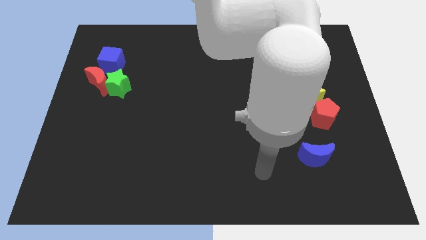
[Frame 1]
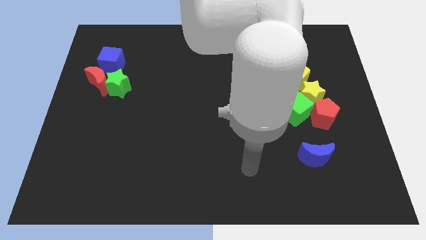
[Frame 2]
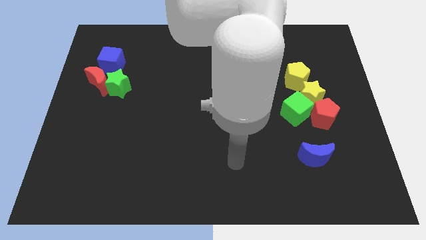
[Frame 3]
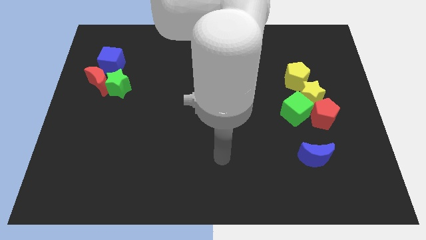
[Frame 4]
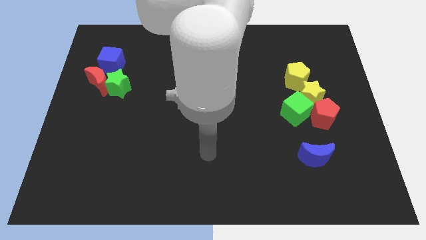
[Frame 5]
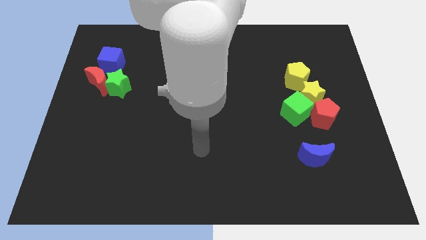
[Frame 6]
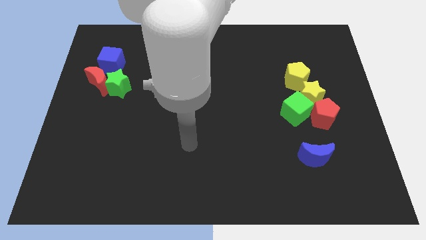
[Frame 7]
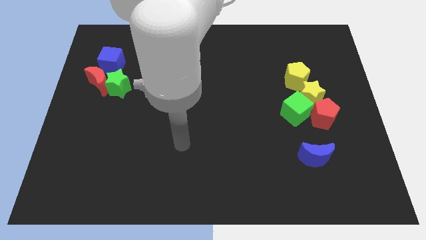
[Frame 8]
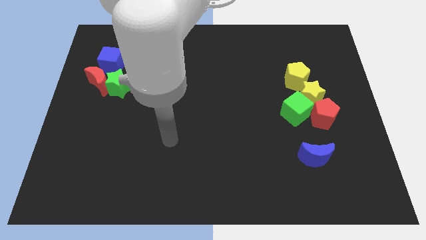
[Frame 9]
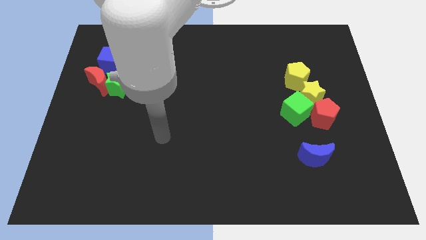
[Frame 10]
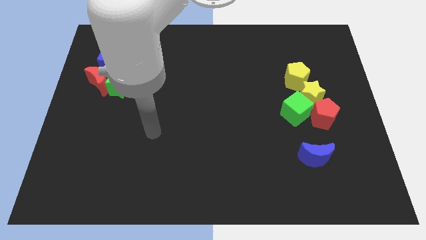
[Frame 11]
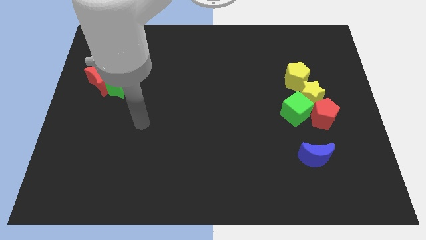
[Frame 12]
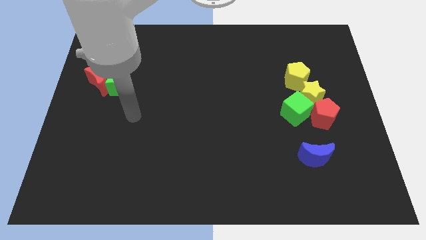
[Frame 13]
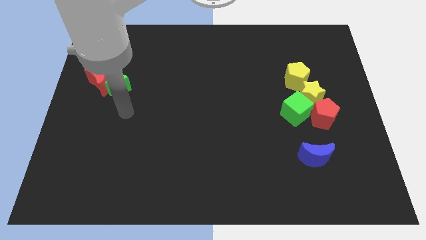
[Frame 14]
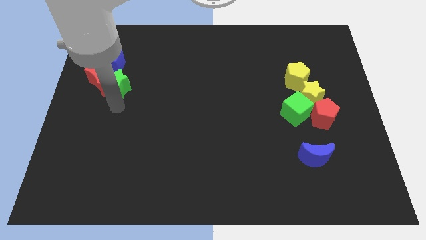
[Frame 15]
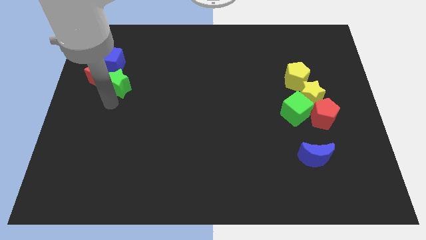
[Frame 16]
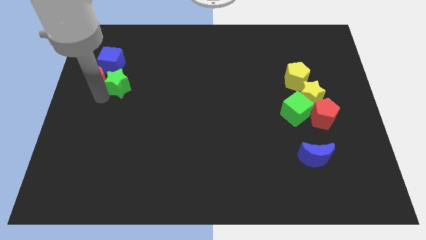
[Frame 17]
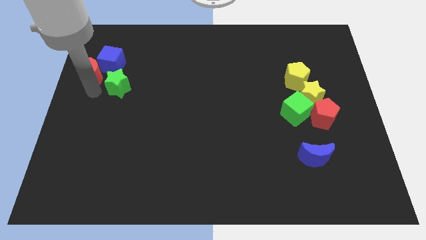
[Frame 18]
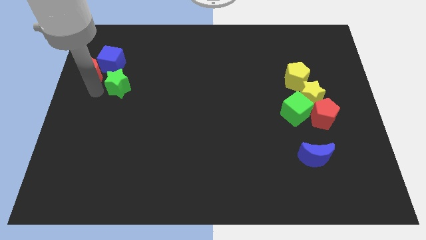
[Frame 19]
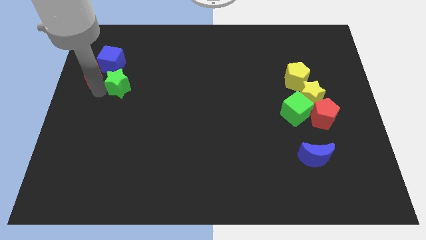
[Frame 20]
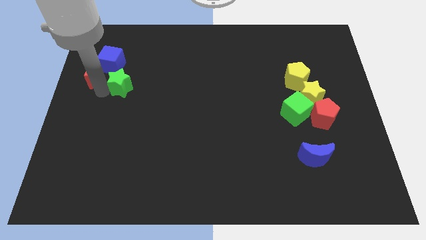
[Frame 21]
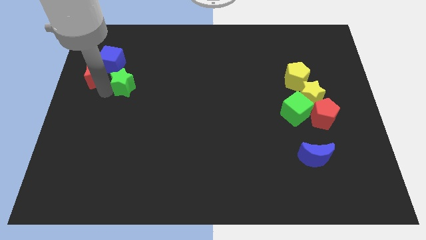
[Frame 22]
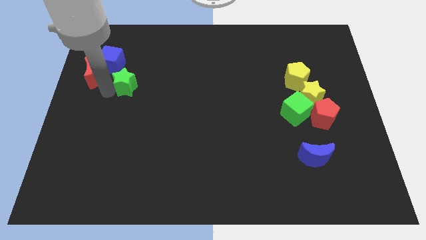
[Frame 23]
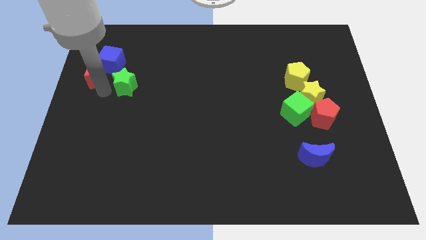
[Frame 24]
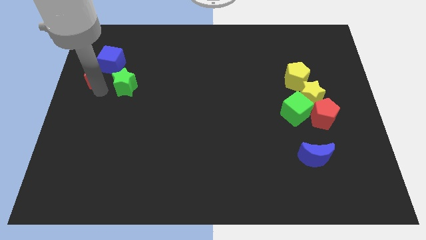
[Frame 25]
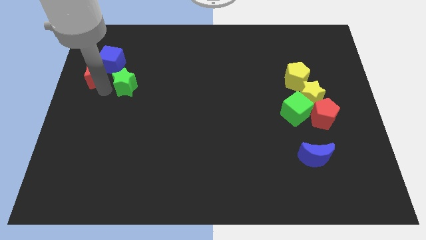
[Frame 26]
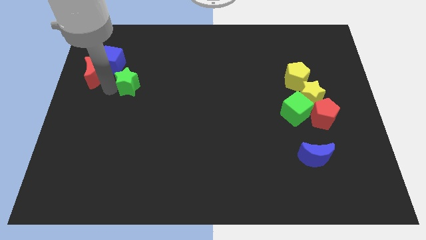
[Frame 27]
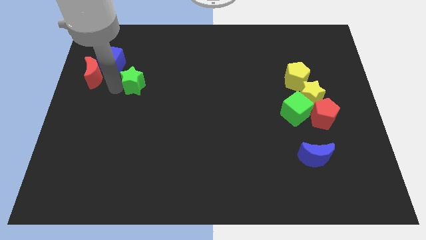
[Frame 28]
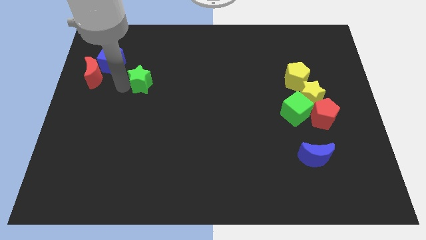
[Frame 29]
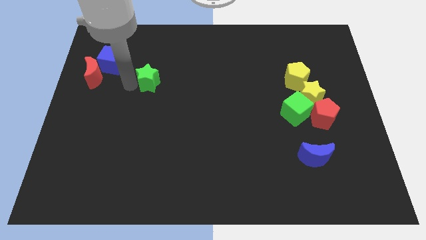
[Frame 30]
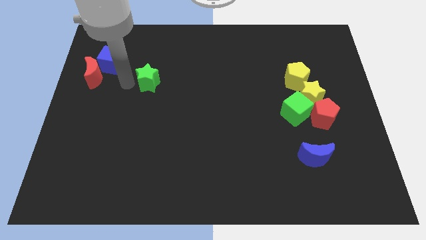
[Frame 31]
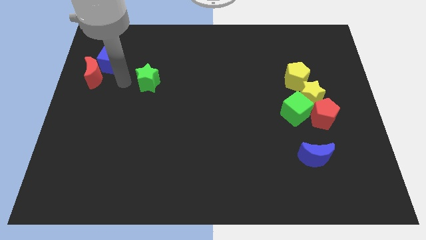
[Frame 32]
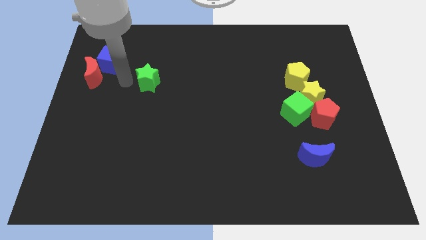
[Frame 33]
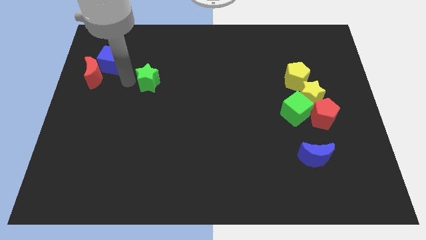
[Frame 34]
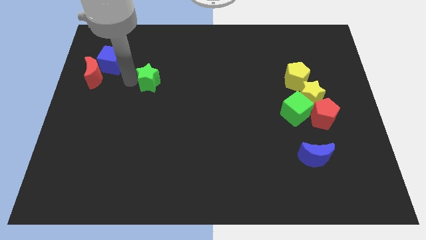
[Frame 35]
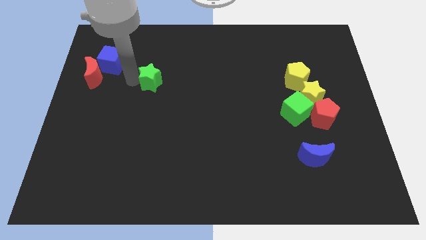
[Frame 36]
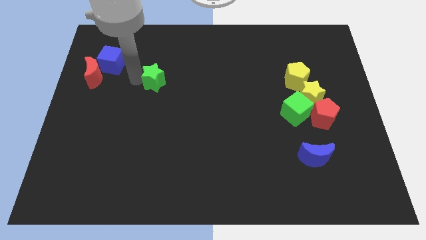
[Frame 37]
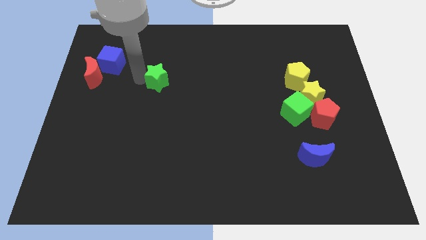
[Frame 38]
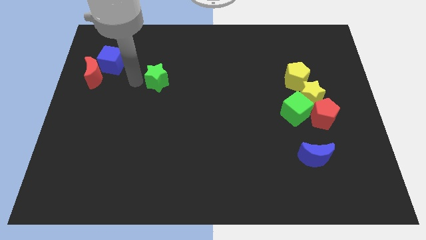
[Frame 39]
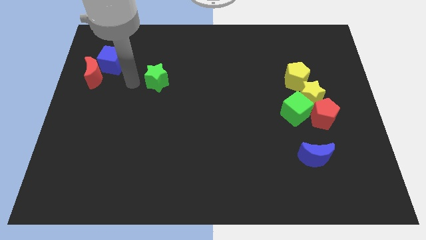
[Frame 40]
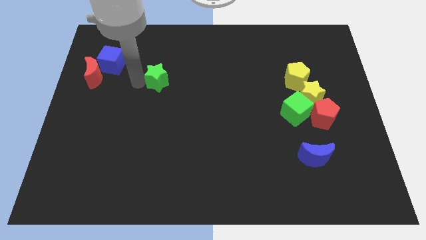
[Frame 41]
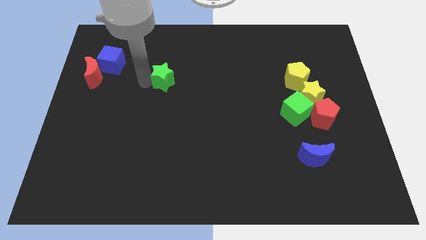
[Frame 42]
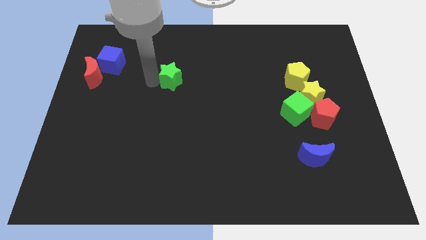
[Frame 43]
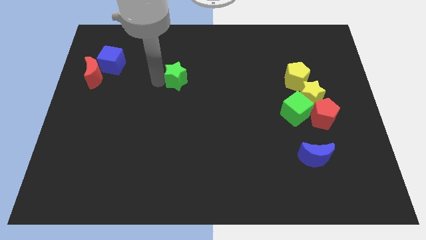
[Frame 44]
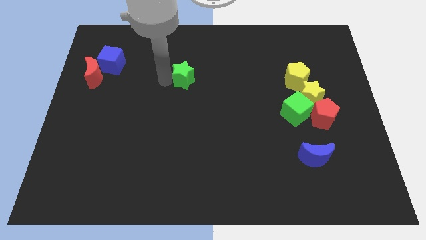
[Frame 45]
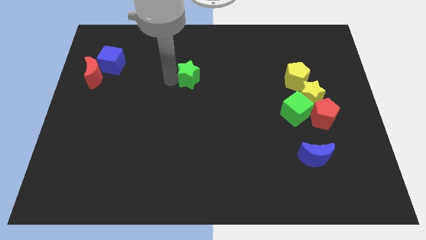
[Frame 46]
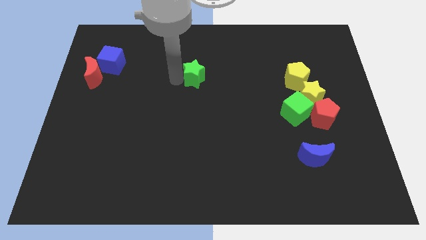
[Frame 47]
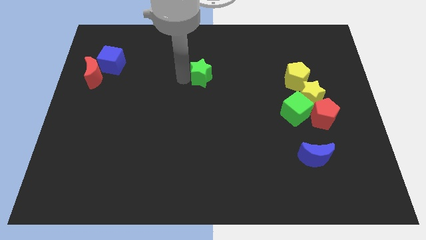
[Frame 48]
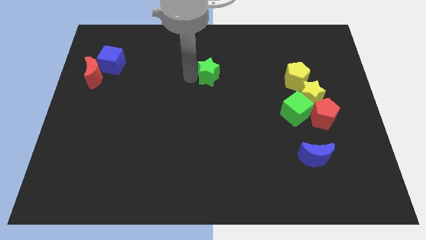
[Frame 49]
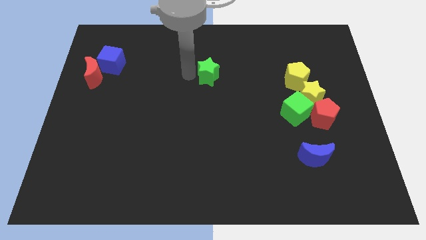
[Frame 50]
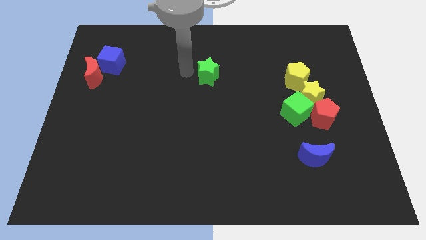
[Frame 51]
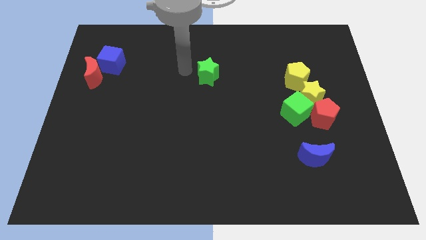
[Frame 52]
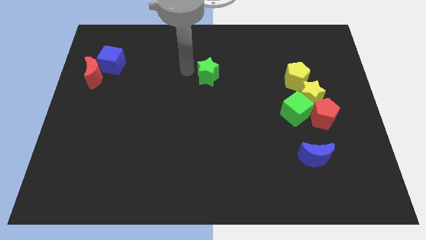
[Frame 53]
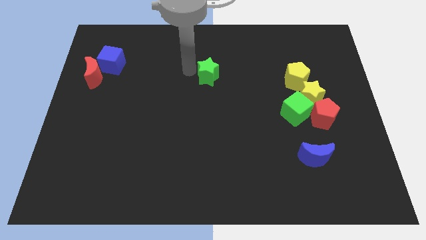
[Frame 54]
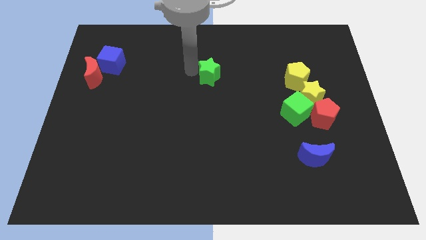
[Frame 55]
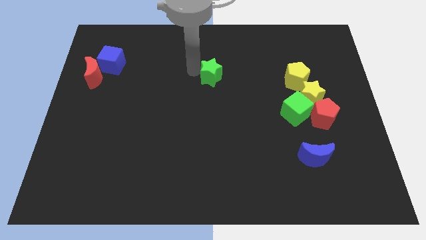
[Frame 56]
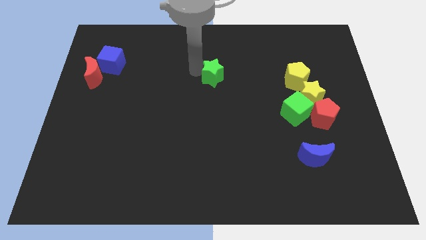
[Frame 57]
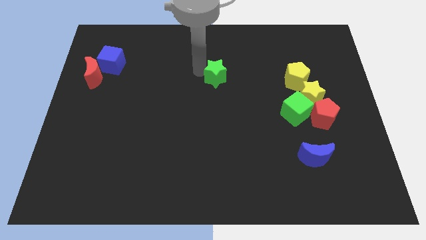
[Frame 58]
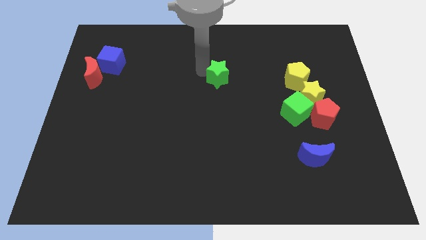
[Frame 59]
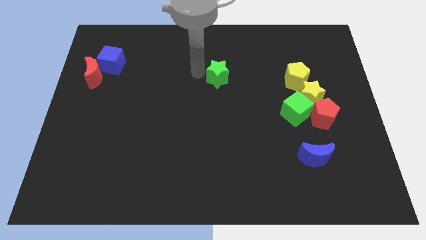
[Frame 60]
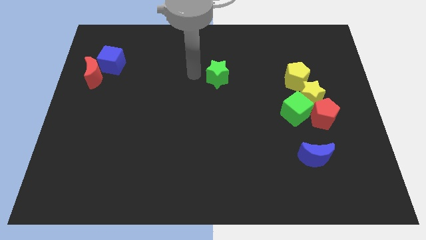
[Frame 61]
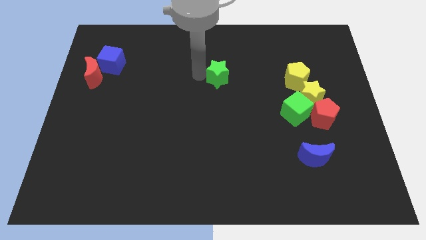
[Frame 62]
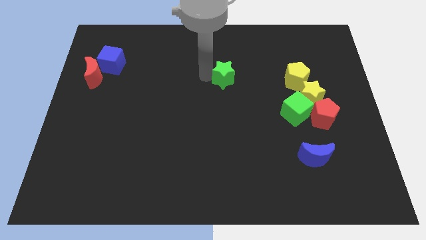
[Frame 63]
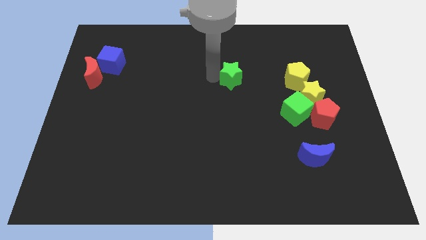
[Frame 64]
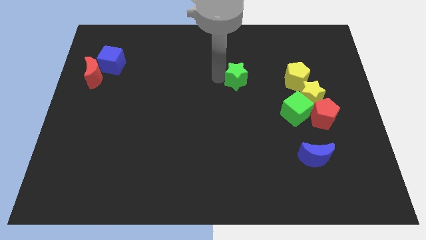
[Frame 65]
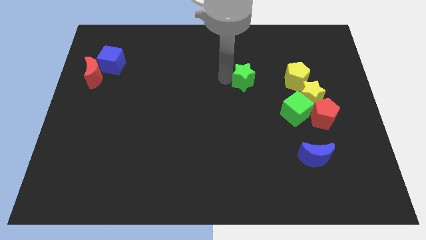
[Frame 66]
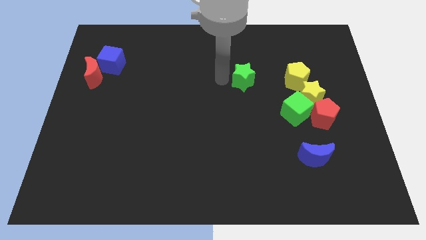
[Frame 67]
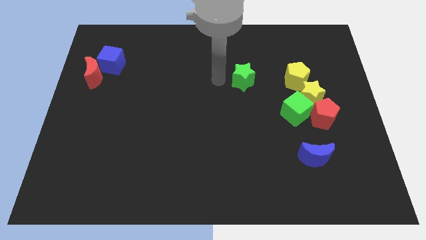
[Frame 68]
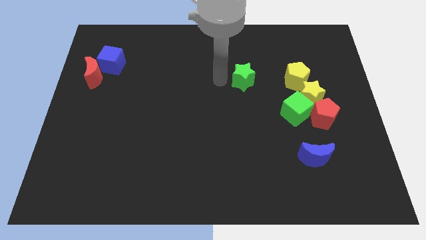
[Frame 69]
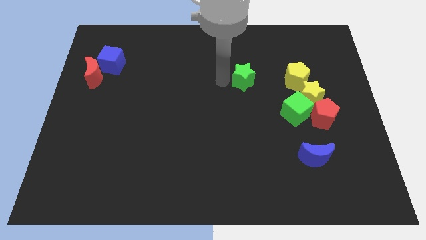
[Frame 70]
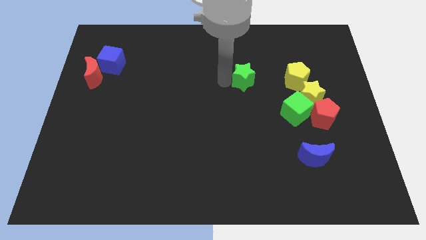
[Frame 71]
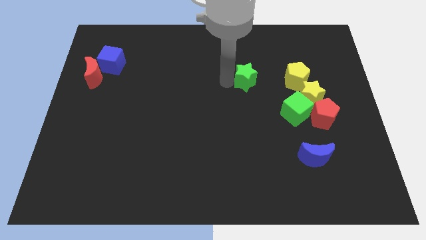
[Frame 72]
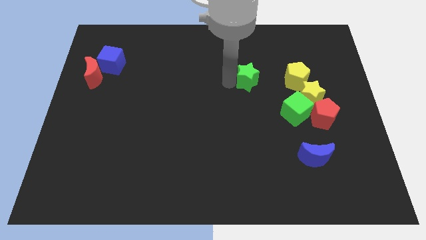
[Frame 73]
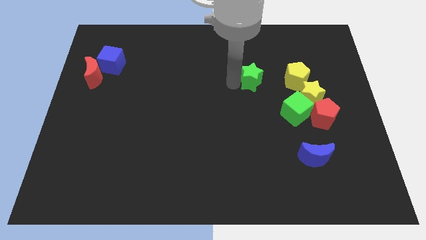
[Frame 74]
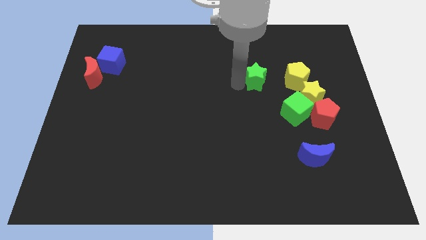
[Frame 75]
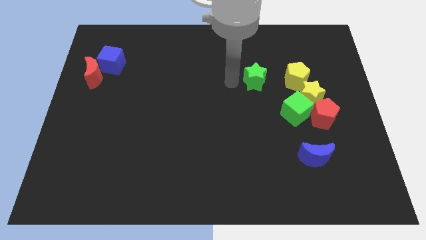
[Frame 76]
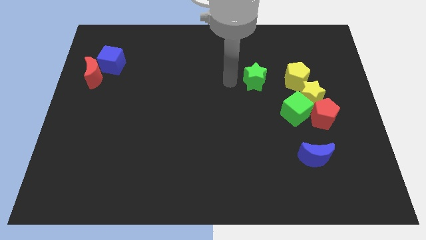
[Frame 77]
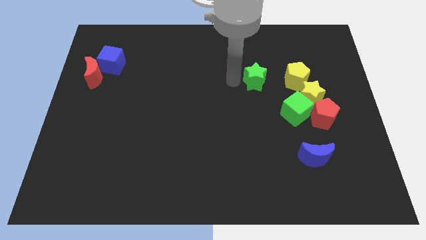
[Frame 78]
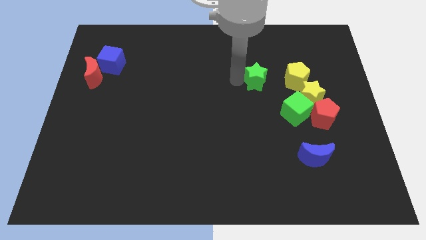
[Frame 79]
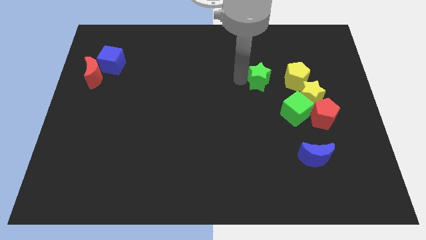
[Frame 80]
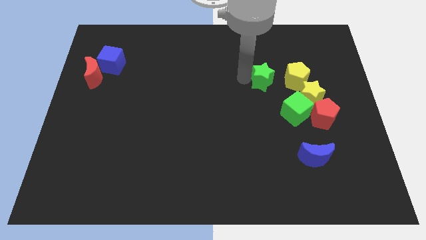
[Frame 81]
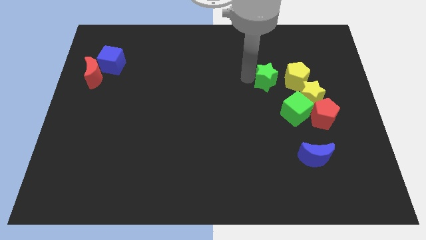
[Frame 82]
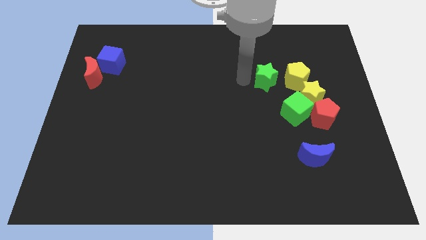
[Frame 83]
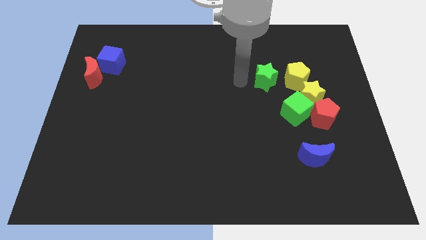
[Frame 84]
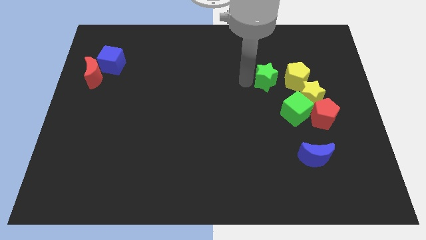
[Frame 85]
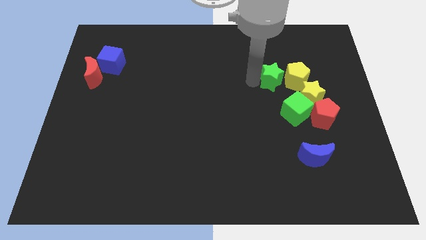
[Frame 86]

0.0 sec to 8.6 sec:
put the green star close to the yellow pentagon
